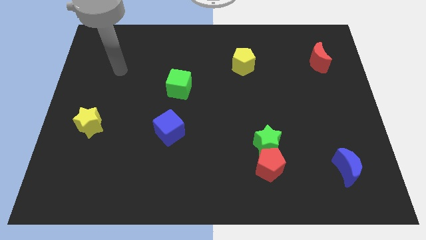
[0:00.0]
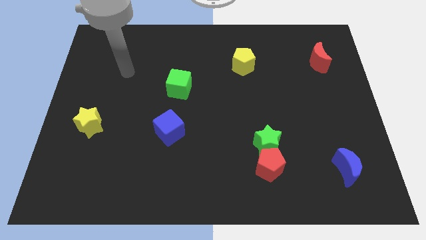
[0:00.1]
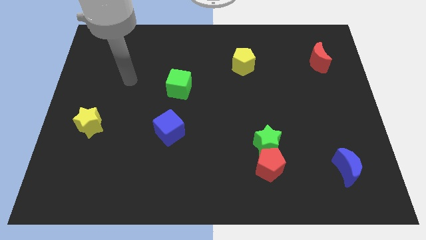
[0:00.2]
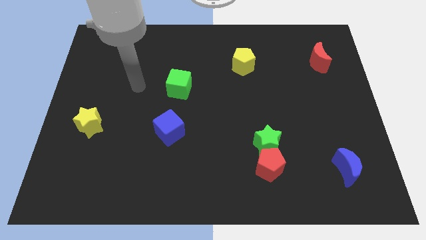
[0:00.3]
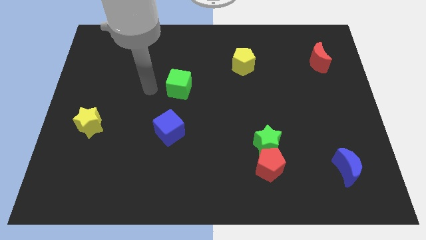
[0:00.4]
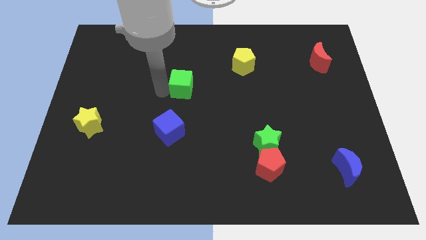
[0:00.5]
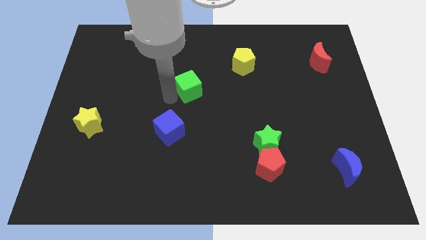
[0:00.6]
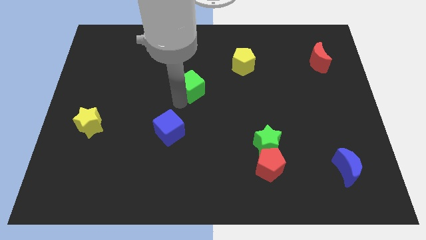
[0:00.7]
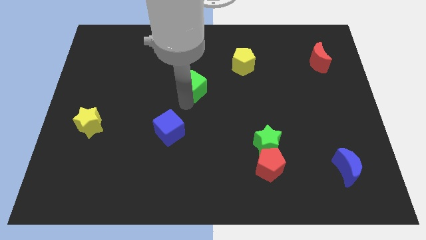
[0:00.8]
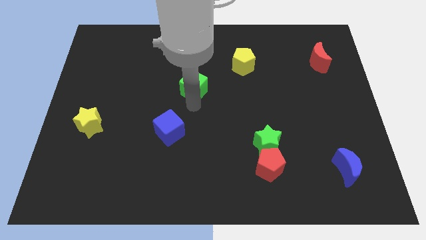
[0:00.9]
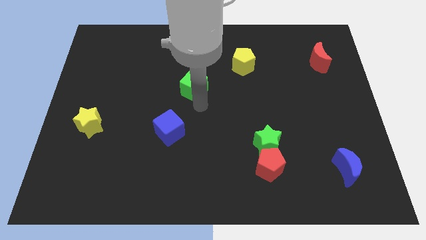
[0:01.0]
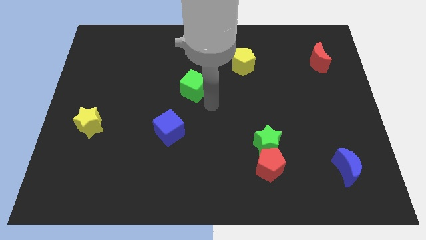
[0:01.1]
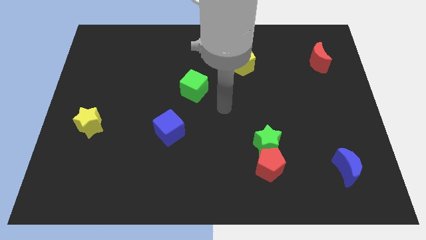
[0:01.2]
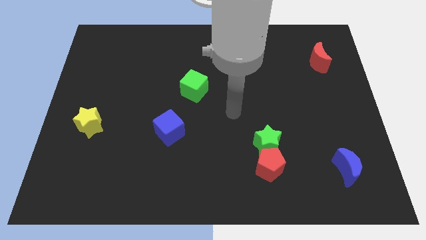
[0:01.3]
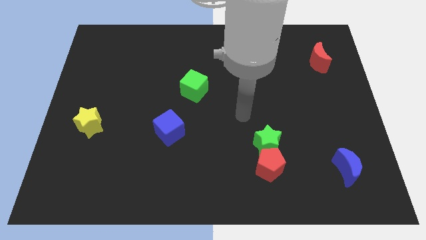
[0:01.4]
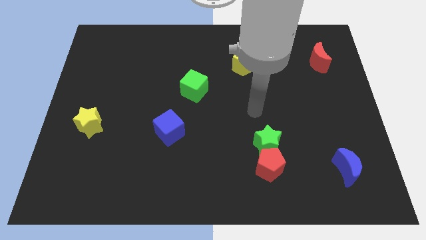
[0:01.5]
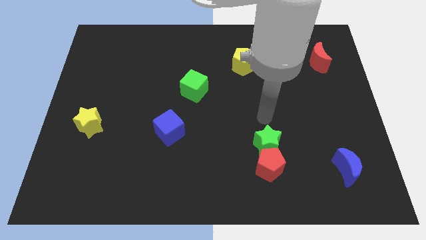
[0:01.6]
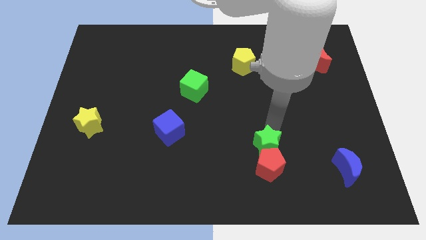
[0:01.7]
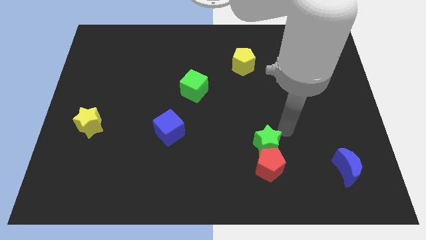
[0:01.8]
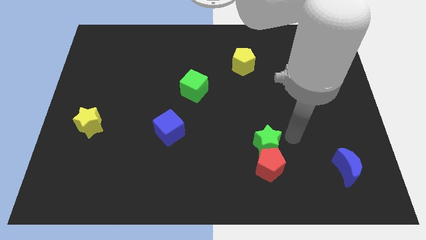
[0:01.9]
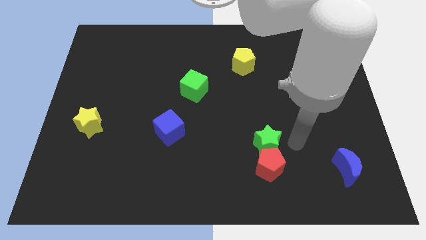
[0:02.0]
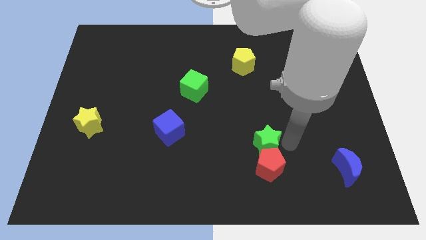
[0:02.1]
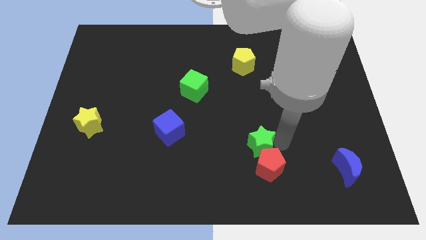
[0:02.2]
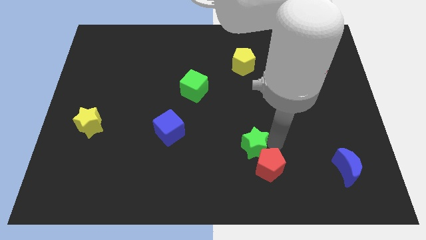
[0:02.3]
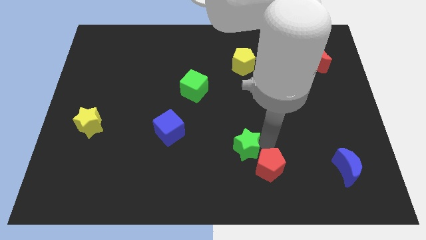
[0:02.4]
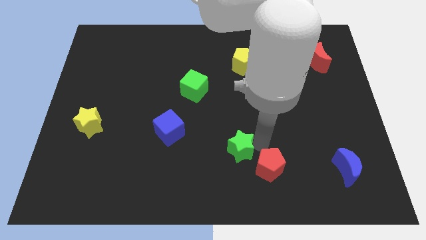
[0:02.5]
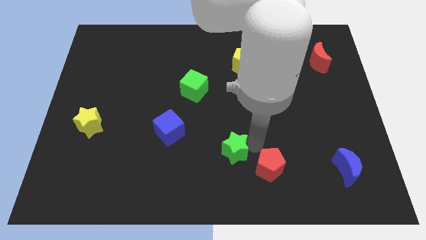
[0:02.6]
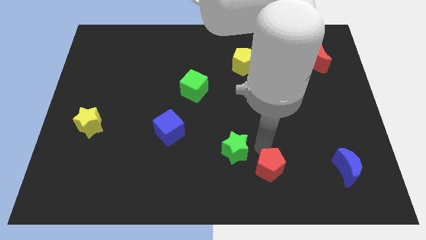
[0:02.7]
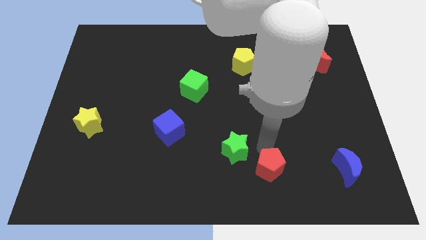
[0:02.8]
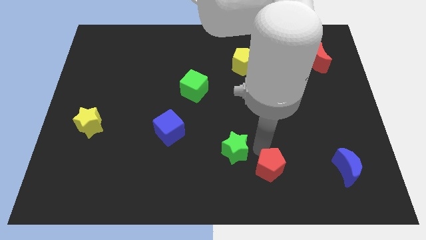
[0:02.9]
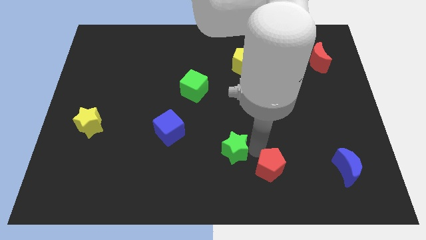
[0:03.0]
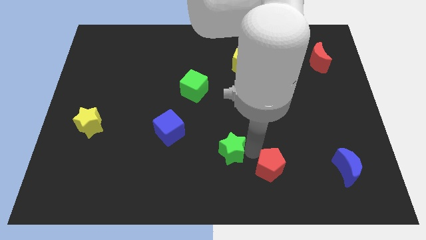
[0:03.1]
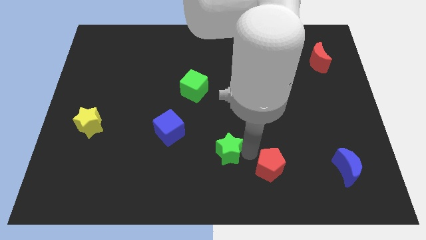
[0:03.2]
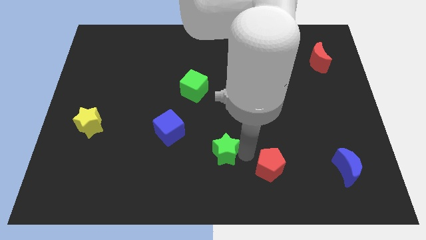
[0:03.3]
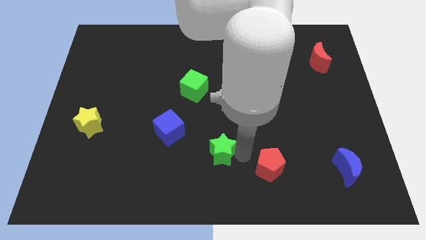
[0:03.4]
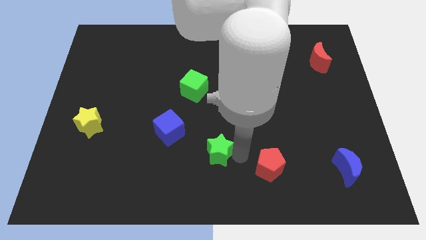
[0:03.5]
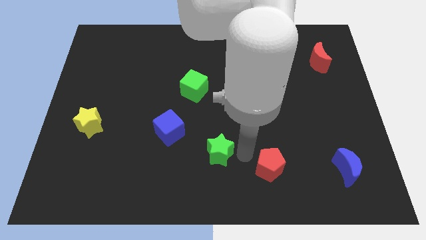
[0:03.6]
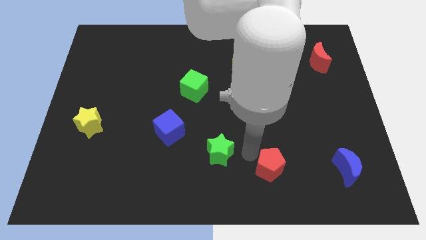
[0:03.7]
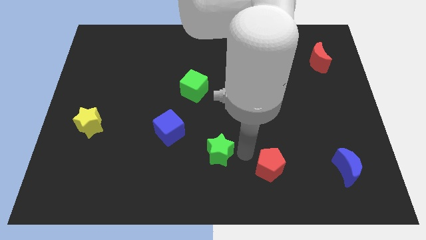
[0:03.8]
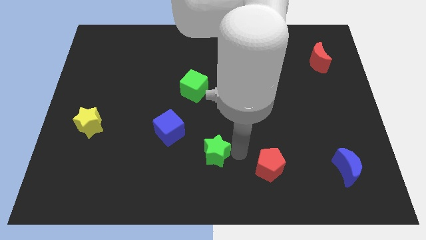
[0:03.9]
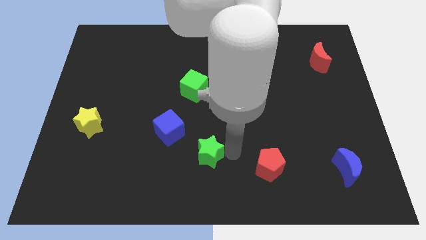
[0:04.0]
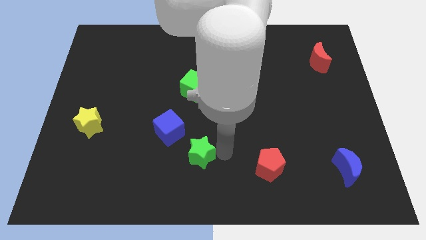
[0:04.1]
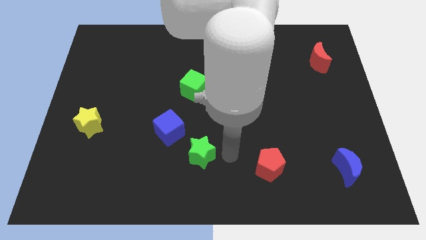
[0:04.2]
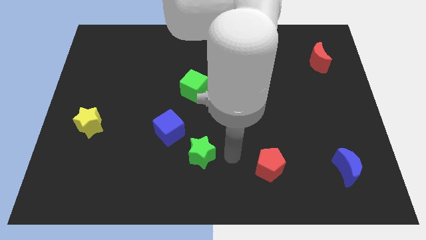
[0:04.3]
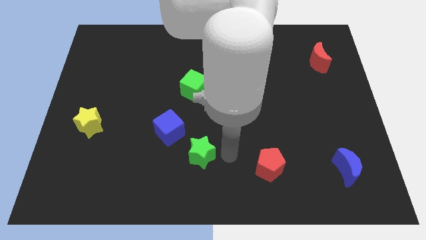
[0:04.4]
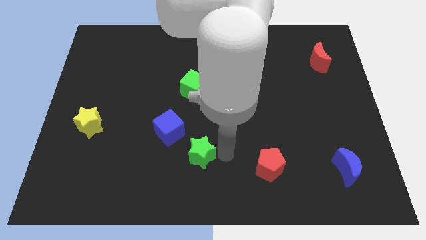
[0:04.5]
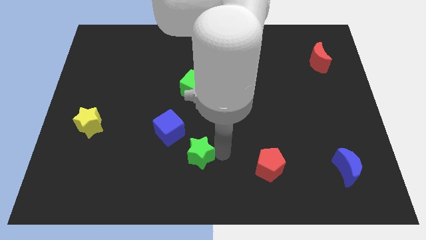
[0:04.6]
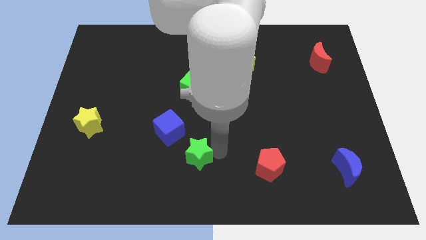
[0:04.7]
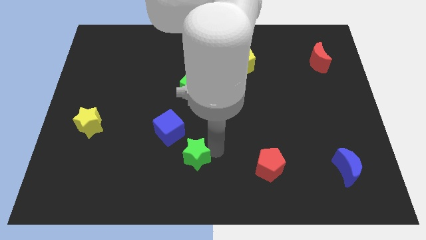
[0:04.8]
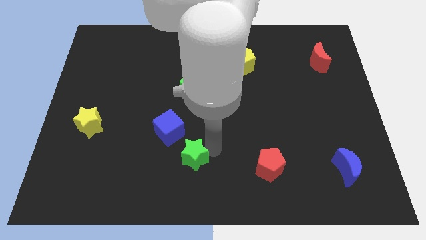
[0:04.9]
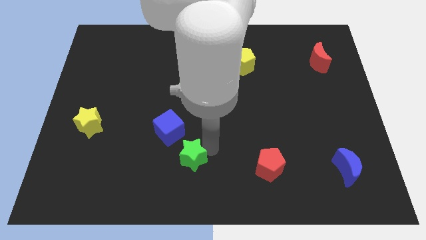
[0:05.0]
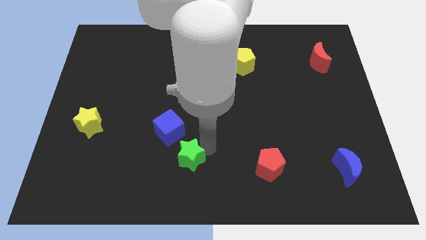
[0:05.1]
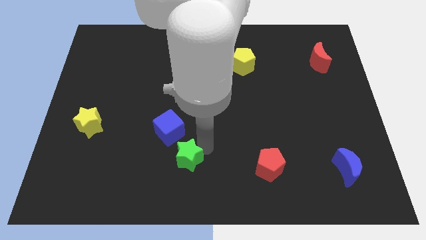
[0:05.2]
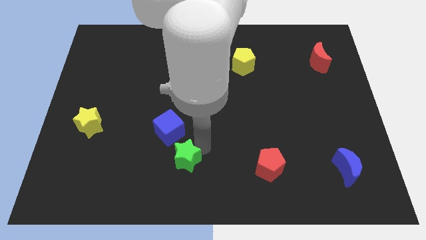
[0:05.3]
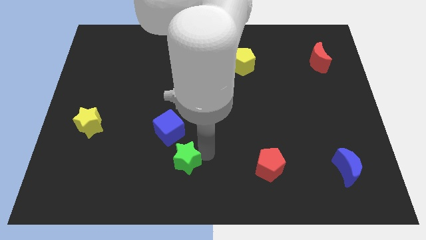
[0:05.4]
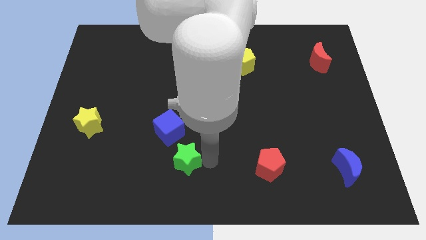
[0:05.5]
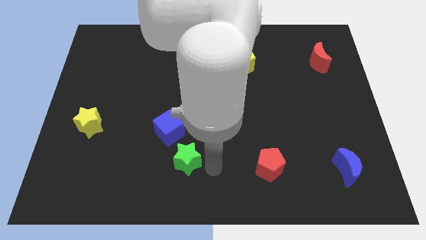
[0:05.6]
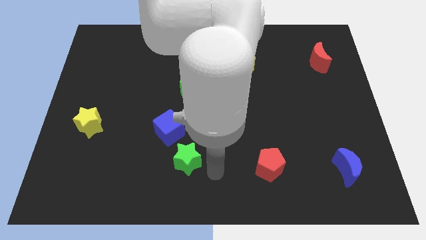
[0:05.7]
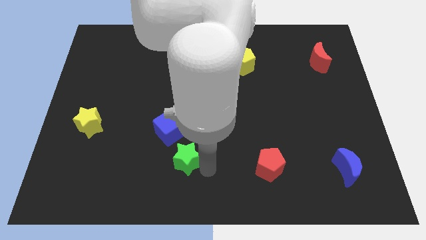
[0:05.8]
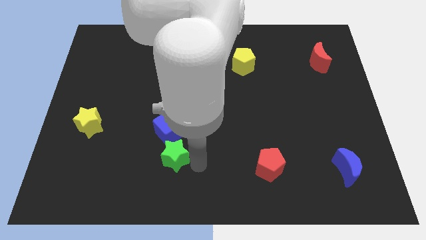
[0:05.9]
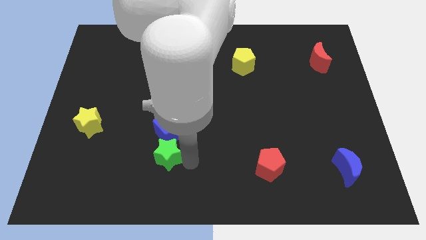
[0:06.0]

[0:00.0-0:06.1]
push the green star left

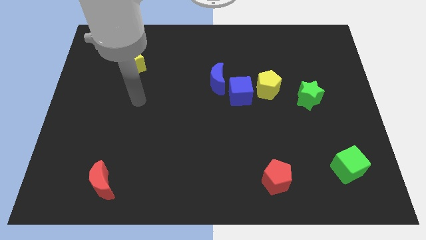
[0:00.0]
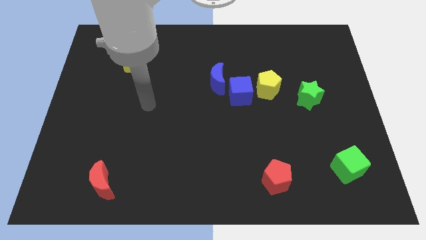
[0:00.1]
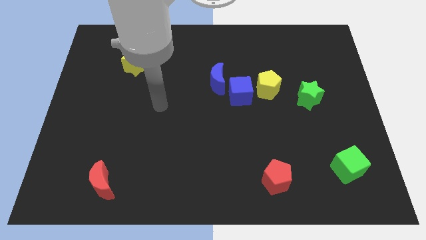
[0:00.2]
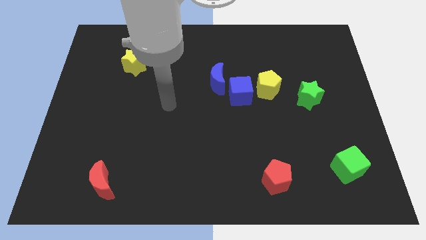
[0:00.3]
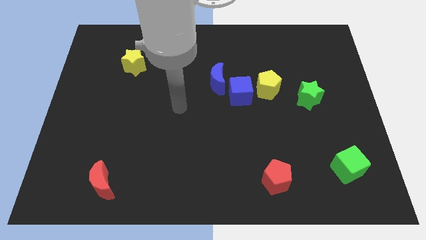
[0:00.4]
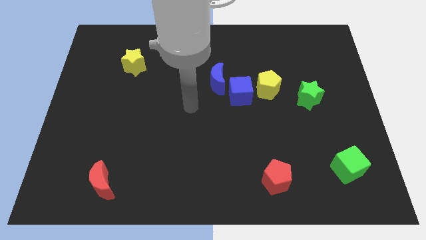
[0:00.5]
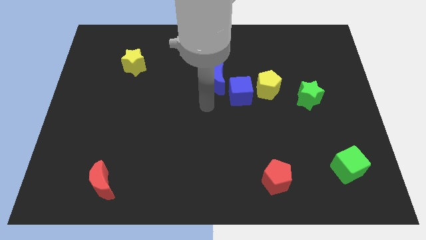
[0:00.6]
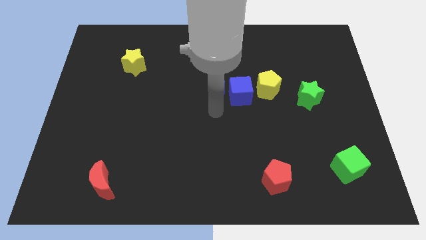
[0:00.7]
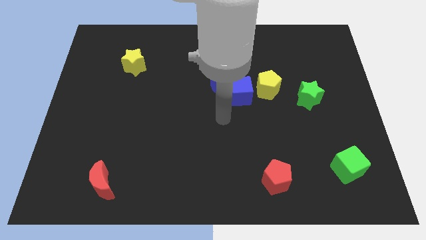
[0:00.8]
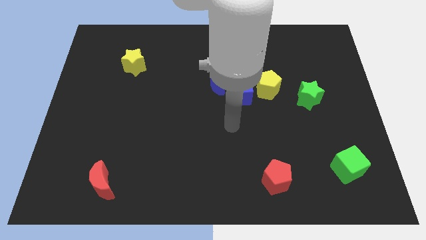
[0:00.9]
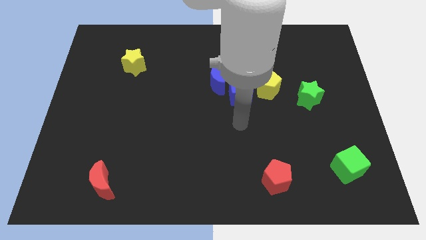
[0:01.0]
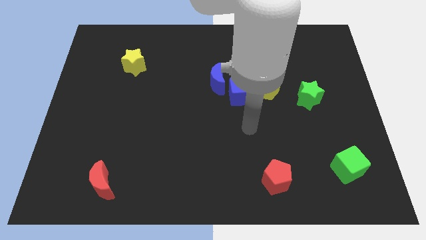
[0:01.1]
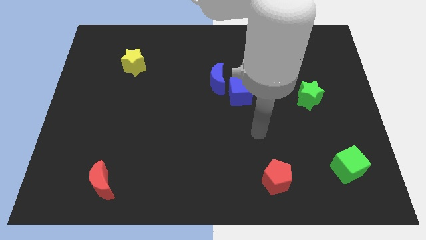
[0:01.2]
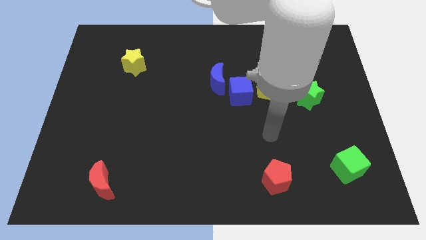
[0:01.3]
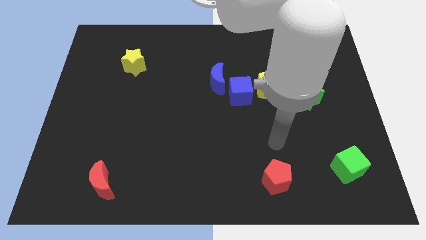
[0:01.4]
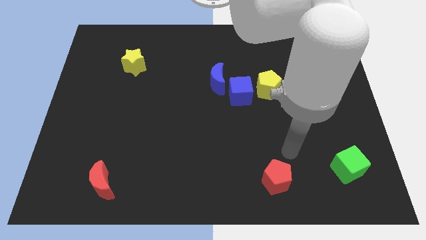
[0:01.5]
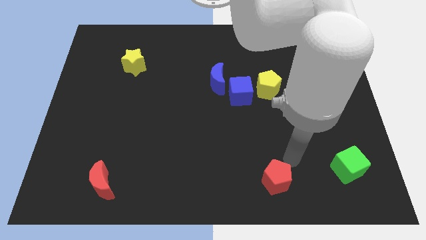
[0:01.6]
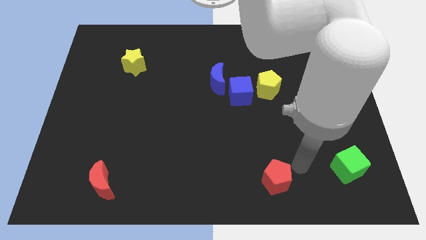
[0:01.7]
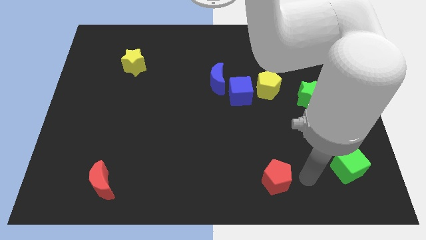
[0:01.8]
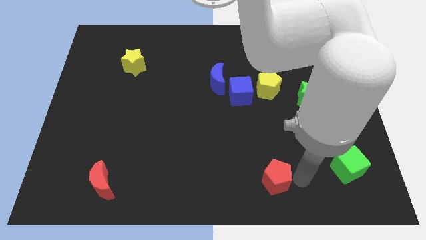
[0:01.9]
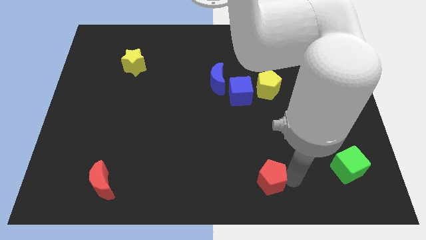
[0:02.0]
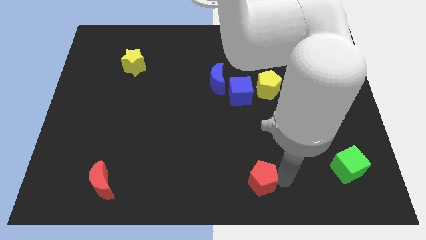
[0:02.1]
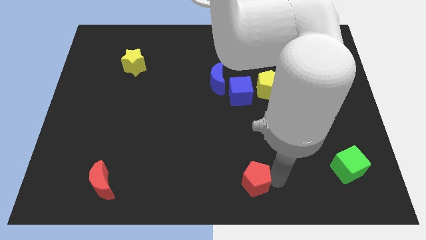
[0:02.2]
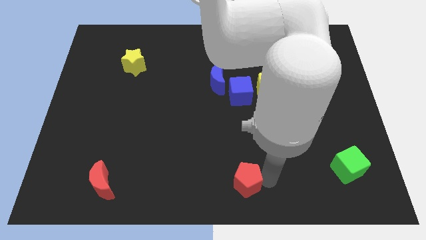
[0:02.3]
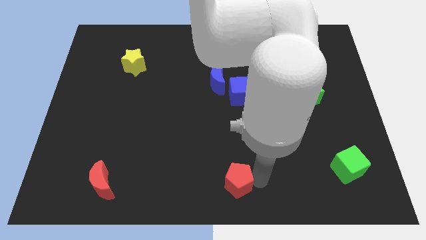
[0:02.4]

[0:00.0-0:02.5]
slide the red pentagon slightly left
